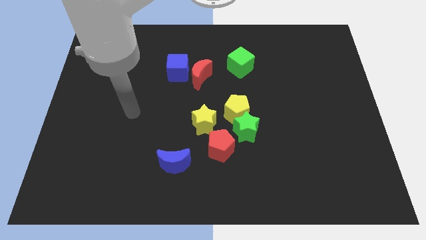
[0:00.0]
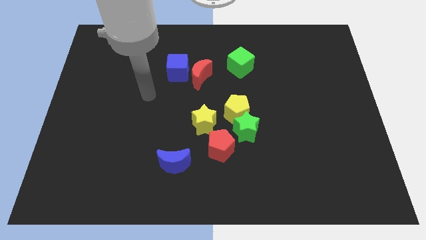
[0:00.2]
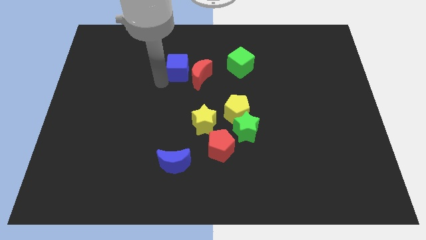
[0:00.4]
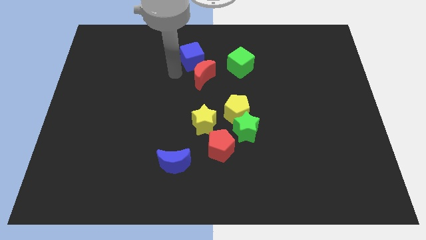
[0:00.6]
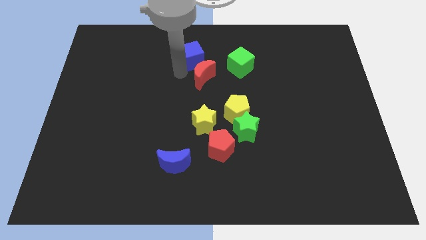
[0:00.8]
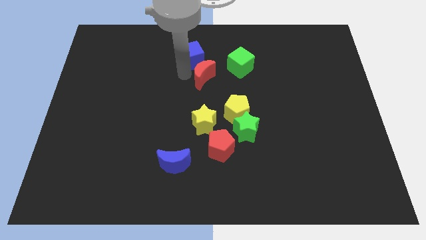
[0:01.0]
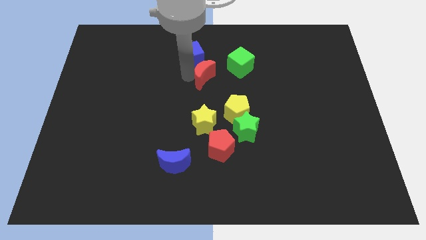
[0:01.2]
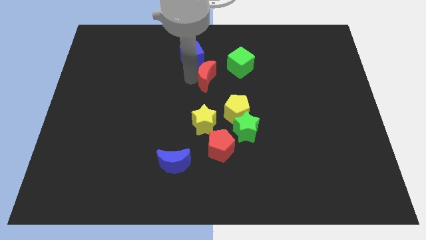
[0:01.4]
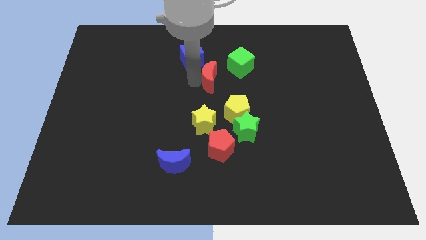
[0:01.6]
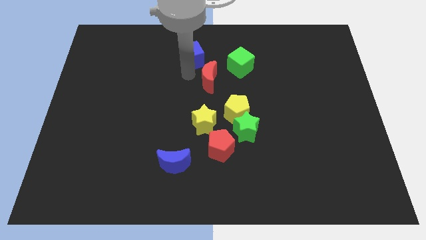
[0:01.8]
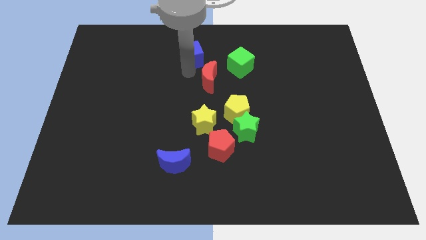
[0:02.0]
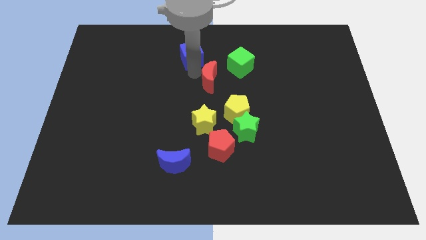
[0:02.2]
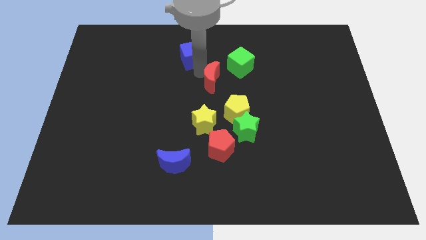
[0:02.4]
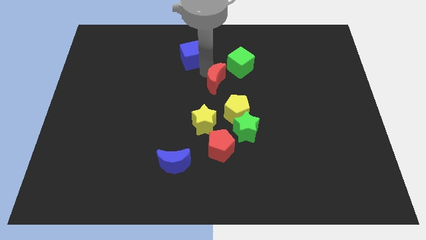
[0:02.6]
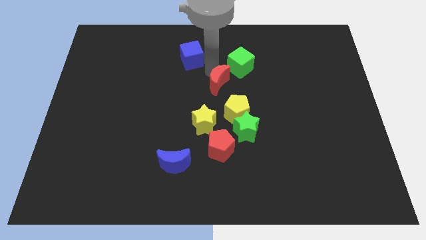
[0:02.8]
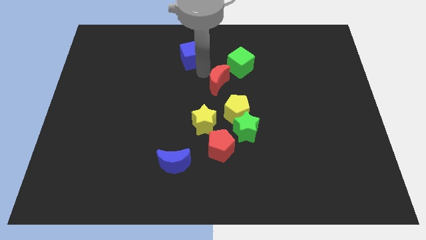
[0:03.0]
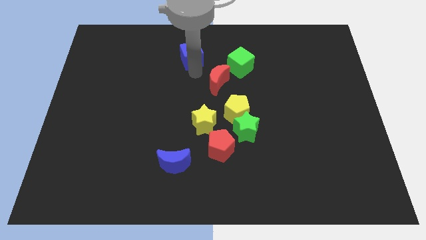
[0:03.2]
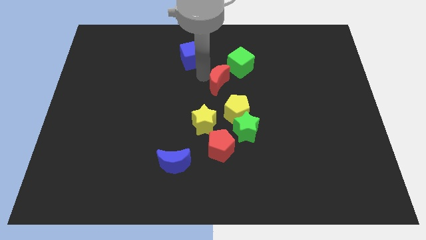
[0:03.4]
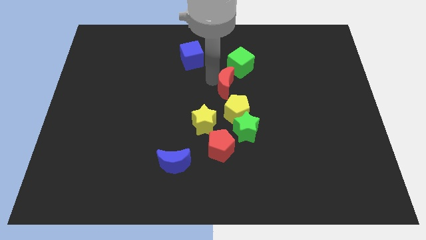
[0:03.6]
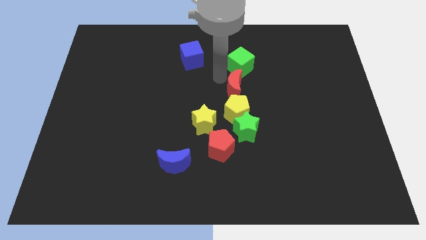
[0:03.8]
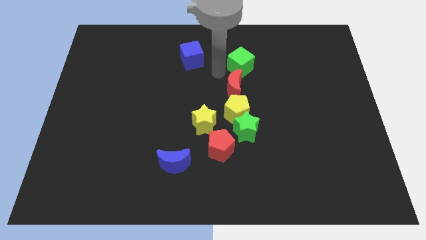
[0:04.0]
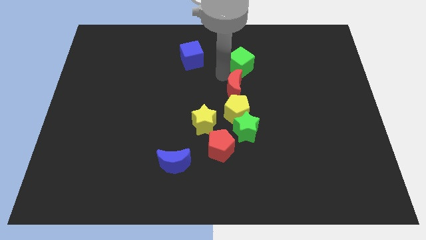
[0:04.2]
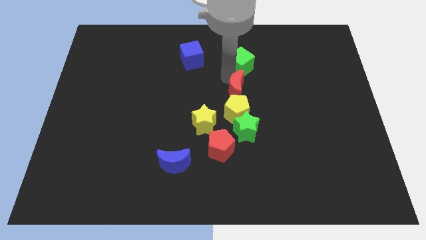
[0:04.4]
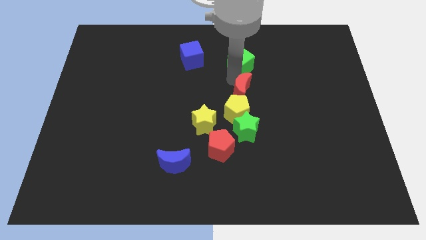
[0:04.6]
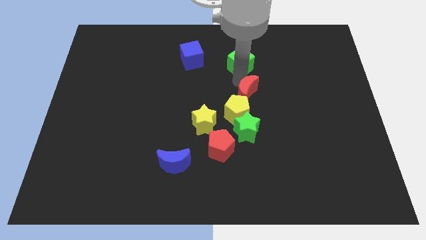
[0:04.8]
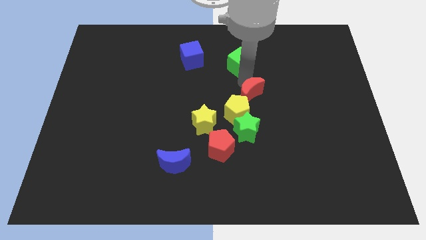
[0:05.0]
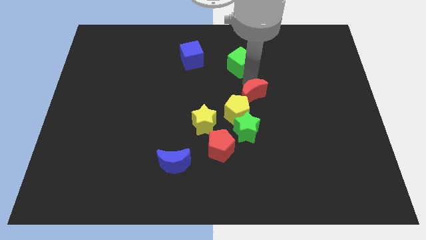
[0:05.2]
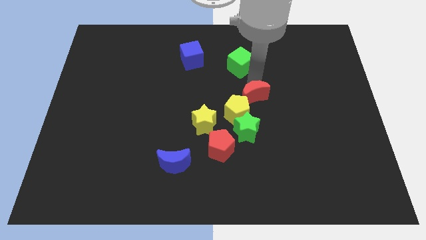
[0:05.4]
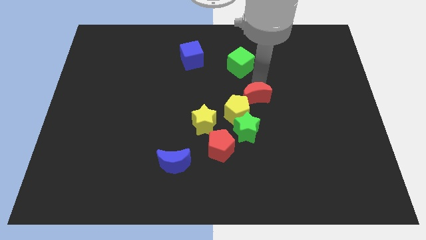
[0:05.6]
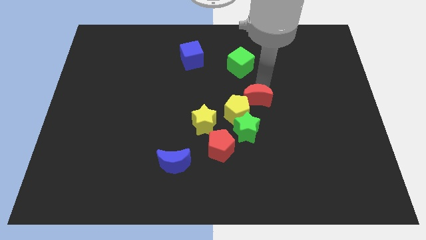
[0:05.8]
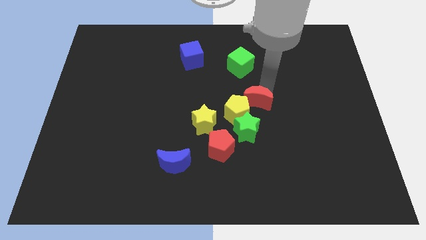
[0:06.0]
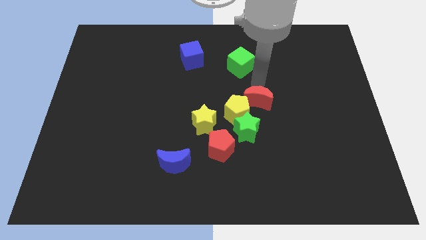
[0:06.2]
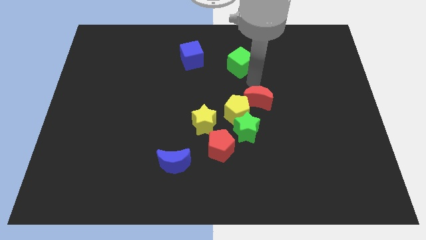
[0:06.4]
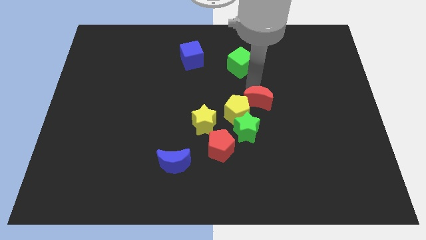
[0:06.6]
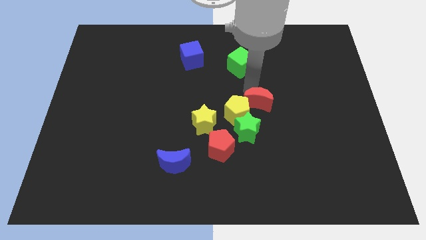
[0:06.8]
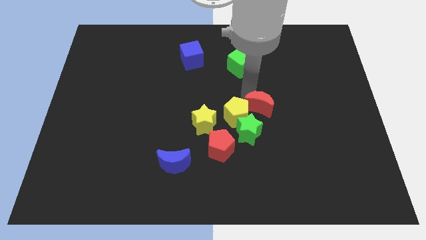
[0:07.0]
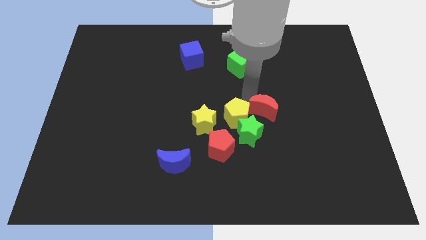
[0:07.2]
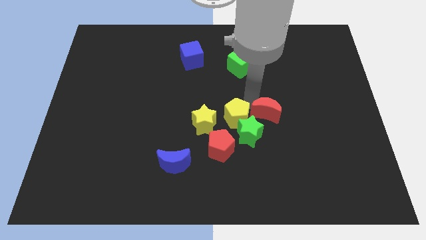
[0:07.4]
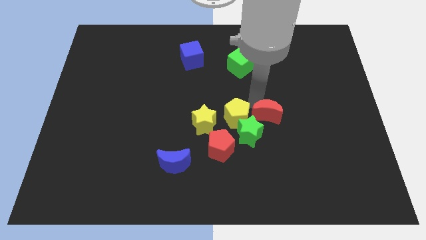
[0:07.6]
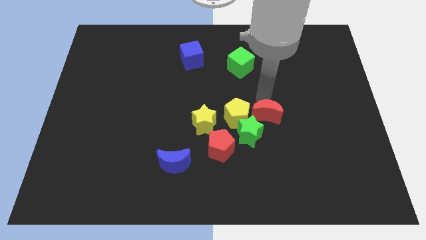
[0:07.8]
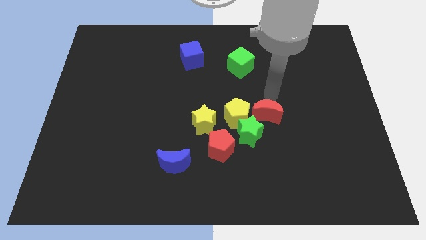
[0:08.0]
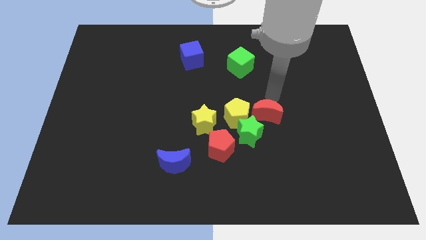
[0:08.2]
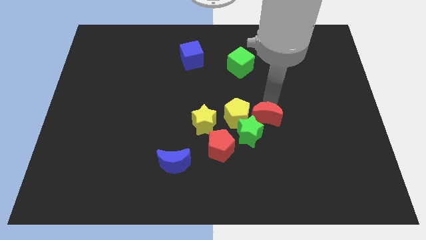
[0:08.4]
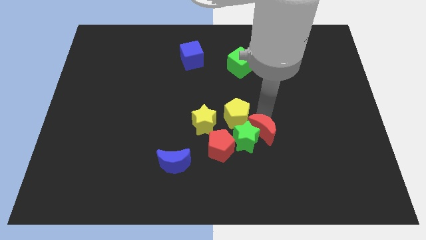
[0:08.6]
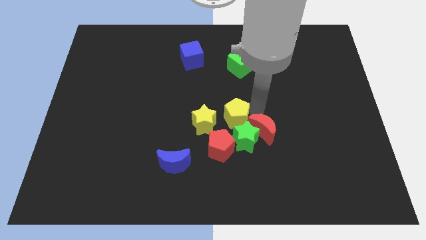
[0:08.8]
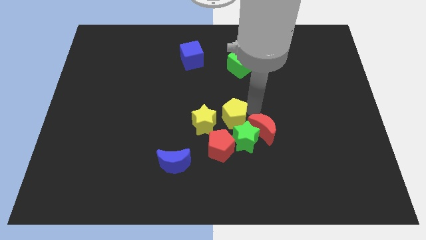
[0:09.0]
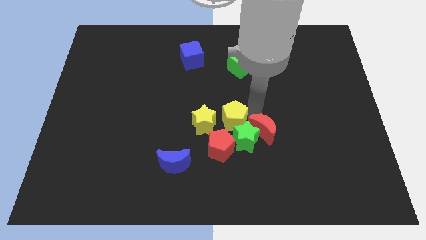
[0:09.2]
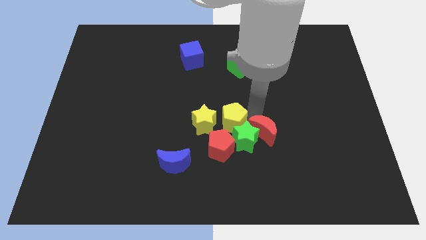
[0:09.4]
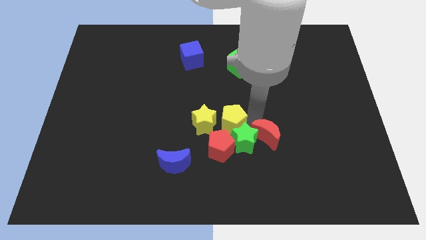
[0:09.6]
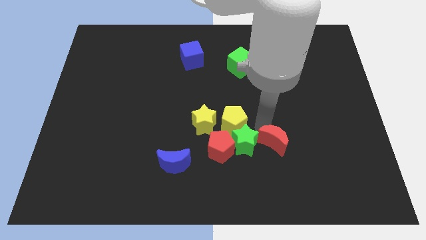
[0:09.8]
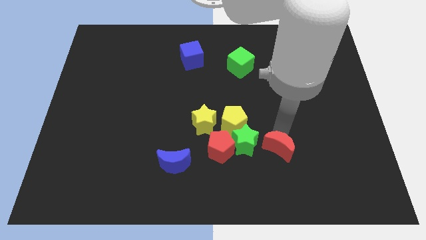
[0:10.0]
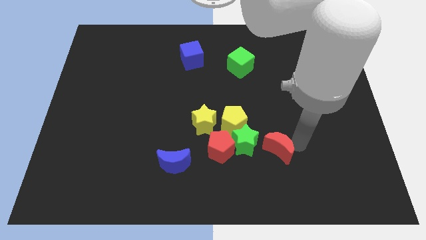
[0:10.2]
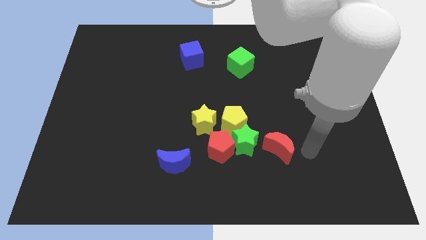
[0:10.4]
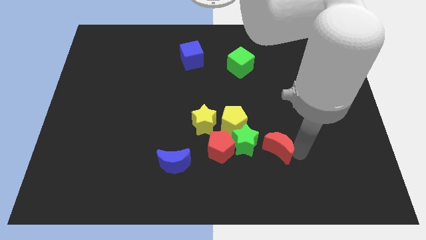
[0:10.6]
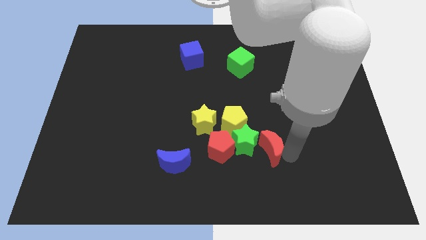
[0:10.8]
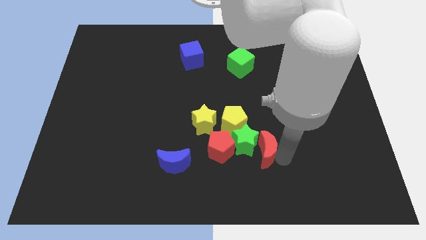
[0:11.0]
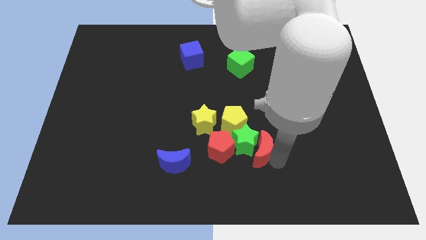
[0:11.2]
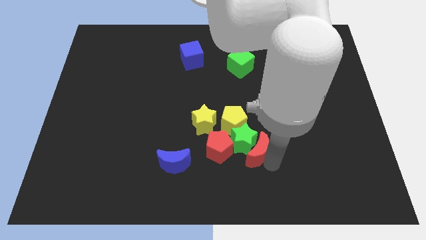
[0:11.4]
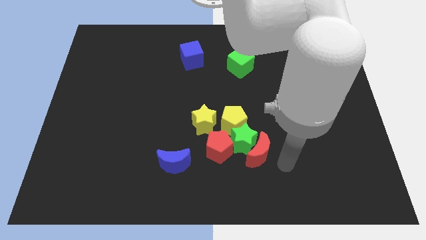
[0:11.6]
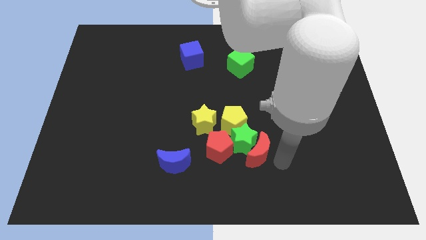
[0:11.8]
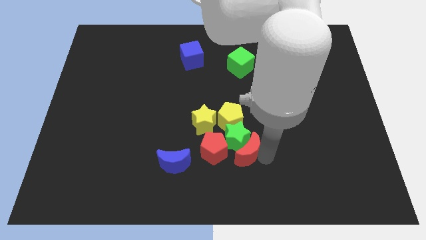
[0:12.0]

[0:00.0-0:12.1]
push the red moon to the bottom right of the yellow star
